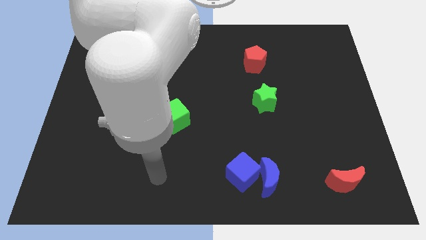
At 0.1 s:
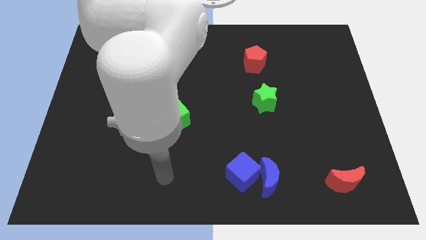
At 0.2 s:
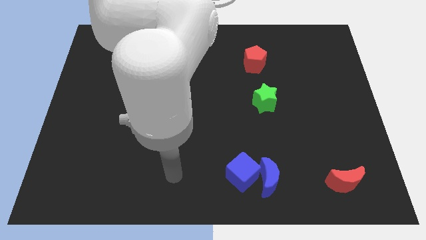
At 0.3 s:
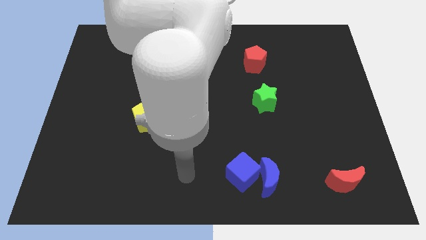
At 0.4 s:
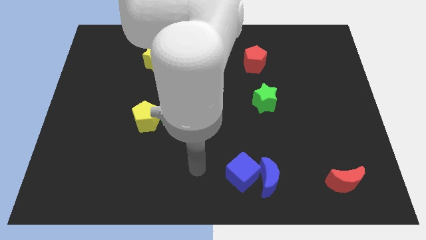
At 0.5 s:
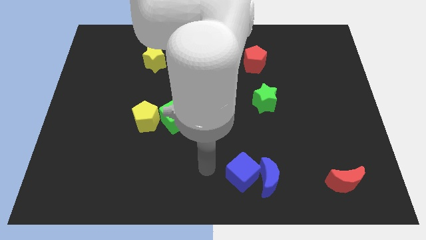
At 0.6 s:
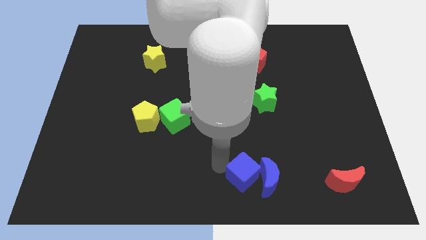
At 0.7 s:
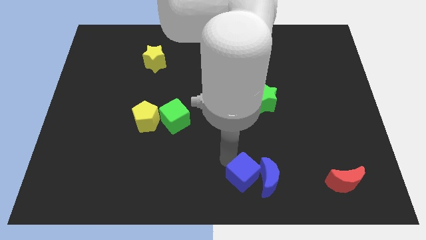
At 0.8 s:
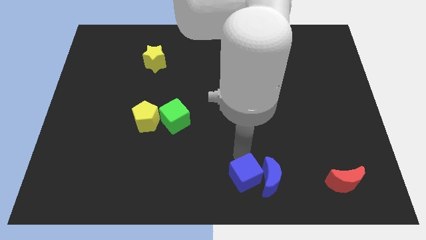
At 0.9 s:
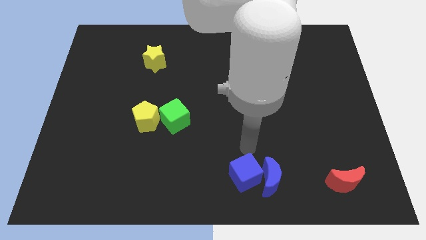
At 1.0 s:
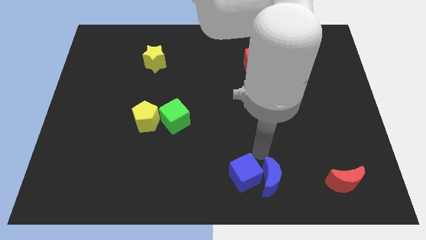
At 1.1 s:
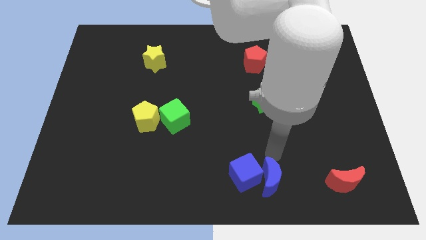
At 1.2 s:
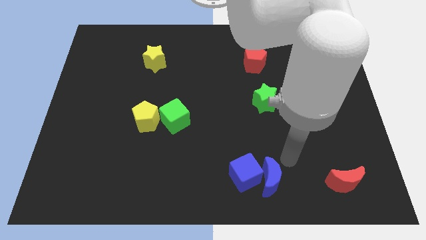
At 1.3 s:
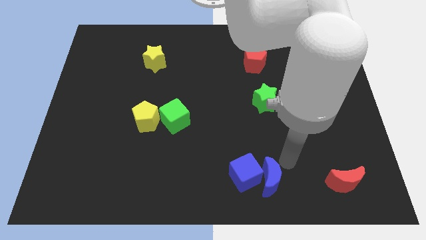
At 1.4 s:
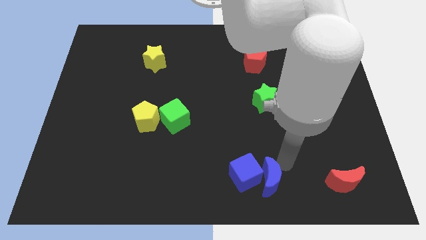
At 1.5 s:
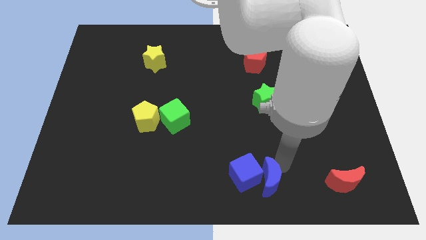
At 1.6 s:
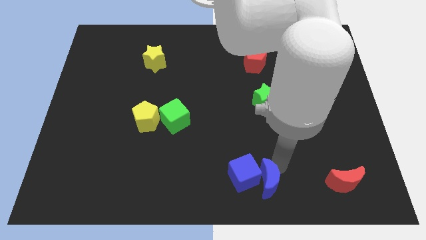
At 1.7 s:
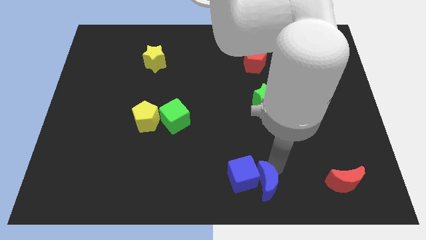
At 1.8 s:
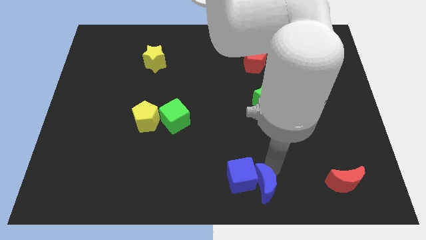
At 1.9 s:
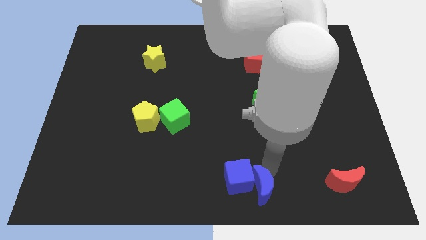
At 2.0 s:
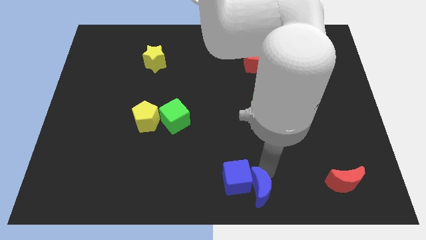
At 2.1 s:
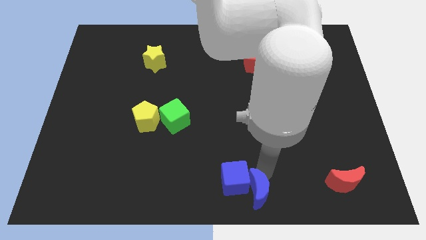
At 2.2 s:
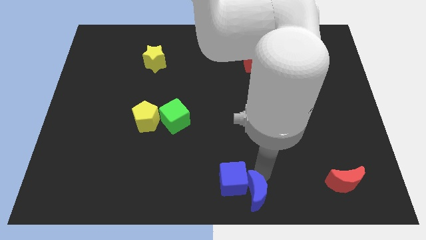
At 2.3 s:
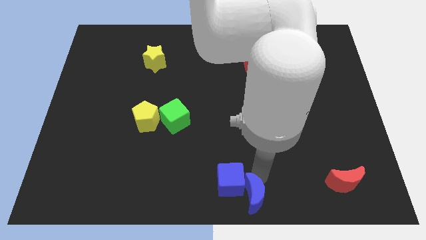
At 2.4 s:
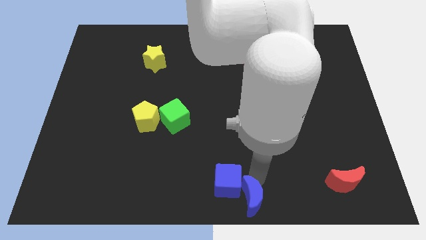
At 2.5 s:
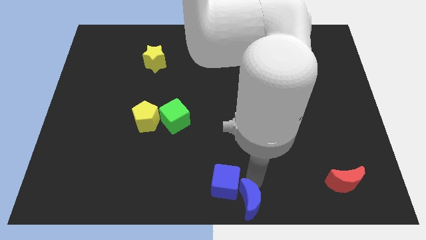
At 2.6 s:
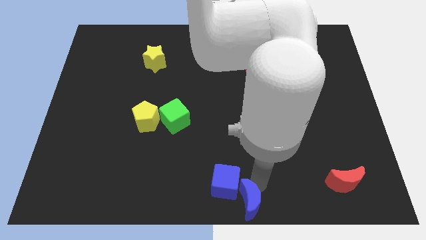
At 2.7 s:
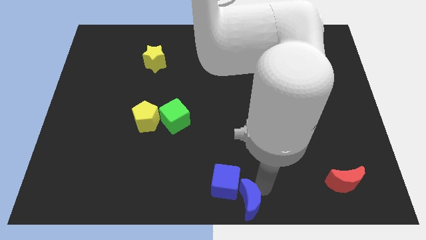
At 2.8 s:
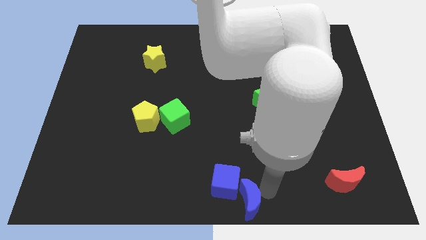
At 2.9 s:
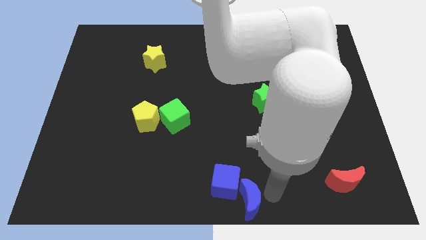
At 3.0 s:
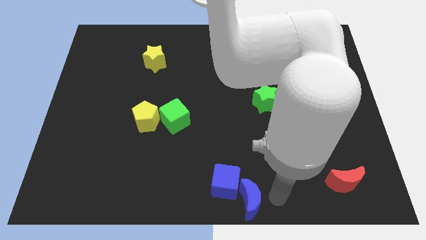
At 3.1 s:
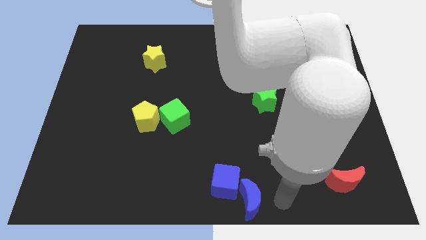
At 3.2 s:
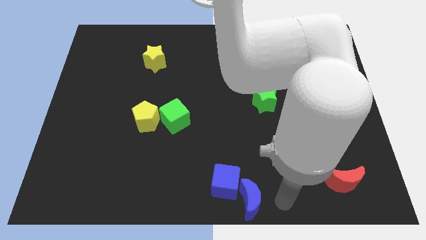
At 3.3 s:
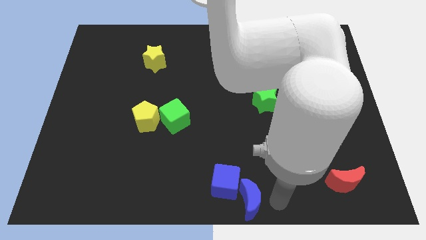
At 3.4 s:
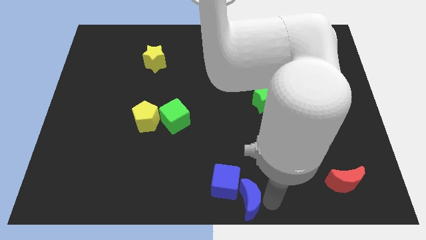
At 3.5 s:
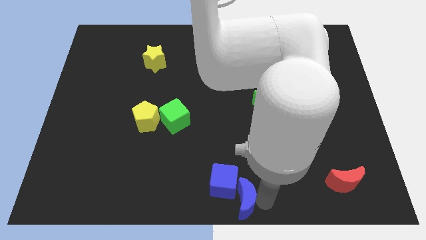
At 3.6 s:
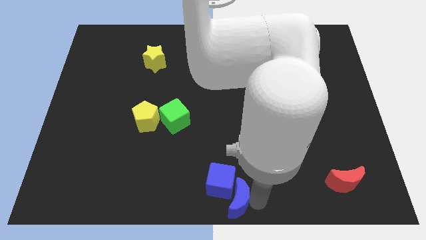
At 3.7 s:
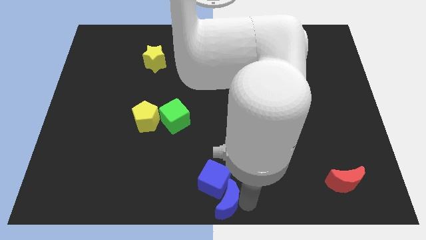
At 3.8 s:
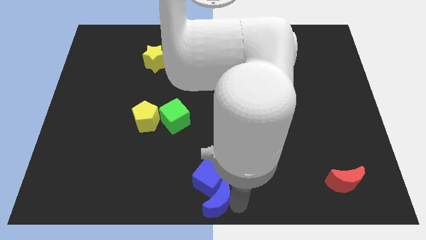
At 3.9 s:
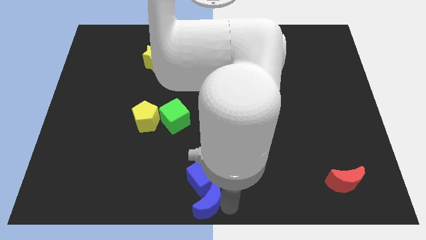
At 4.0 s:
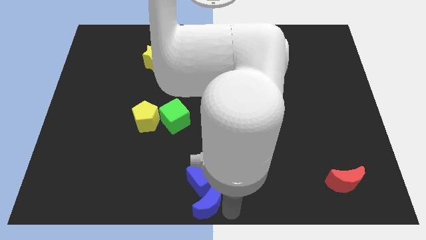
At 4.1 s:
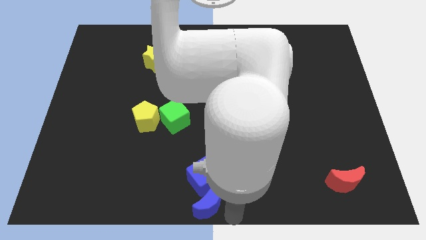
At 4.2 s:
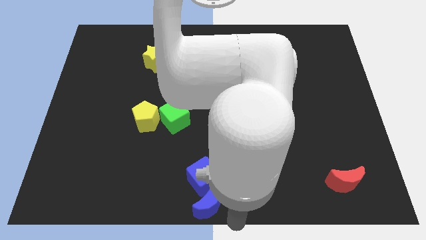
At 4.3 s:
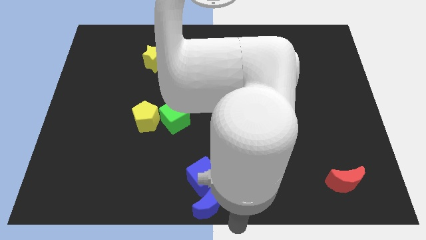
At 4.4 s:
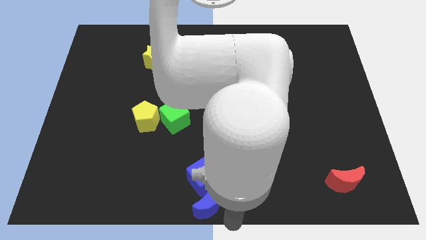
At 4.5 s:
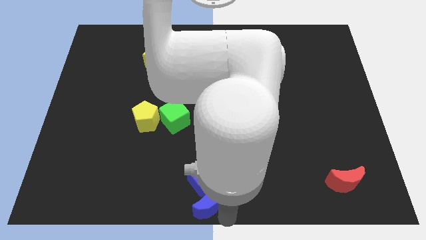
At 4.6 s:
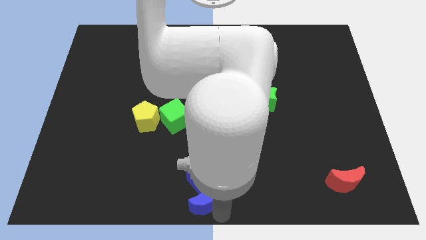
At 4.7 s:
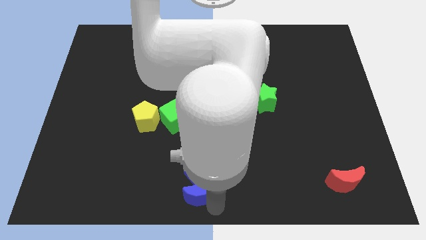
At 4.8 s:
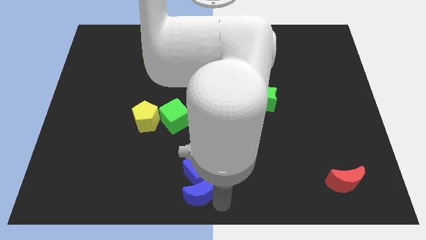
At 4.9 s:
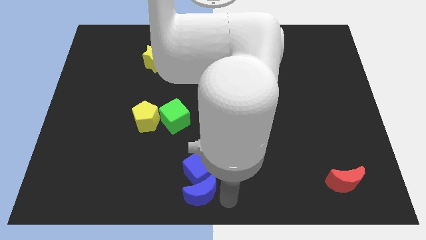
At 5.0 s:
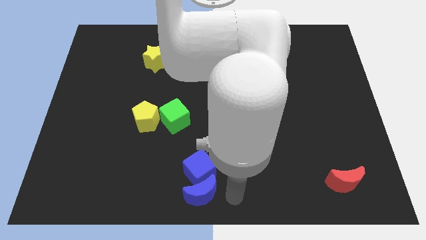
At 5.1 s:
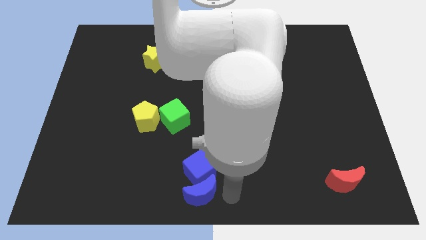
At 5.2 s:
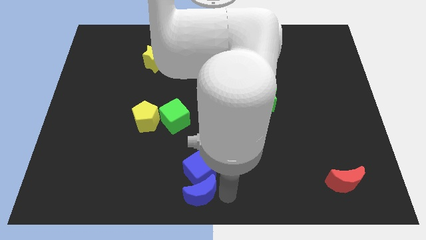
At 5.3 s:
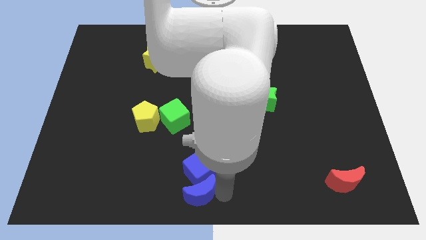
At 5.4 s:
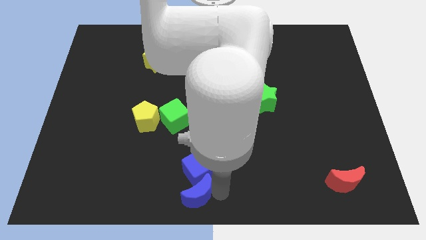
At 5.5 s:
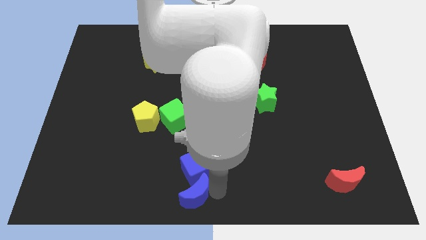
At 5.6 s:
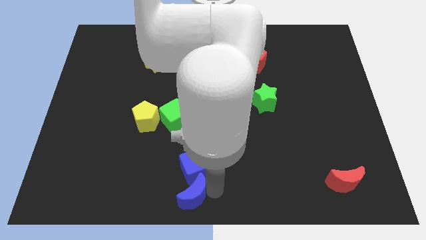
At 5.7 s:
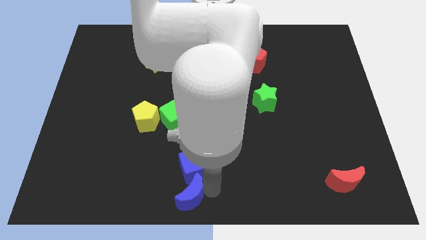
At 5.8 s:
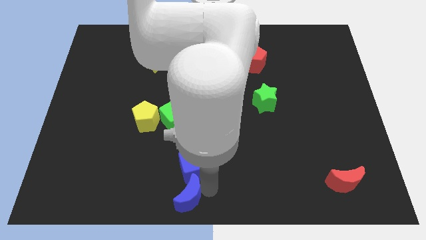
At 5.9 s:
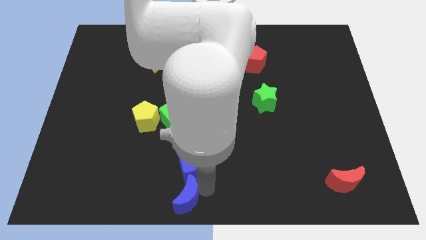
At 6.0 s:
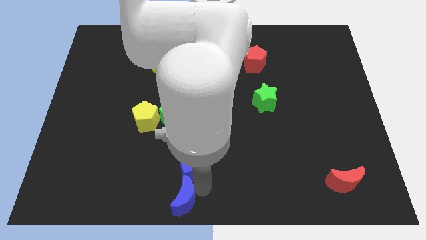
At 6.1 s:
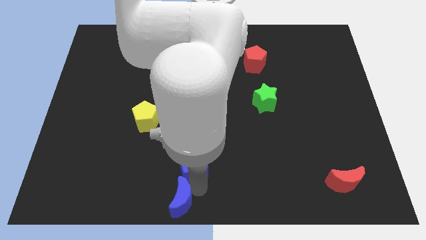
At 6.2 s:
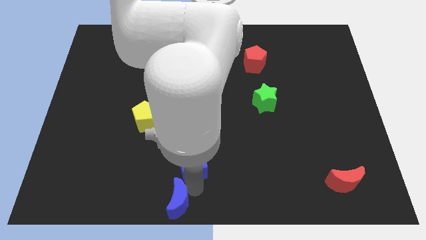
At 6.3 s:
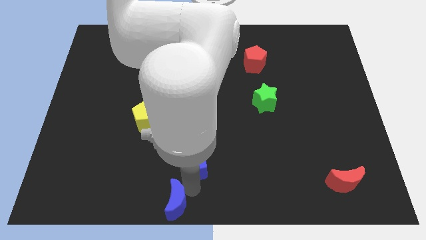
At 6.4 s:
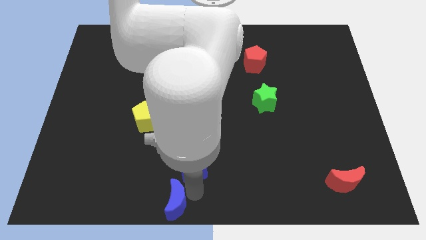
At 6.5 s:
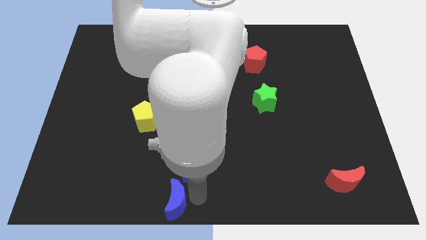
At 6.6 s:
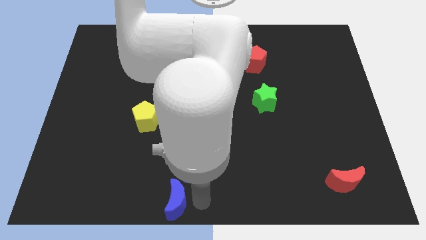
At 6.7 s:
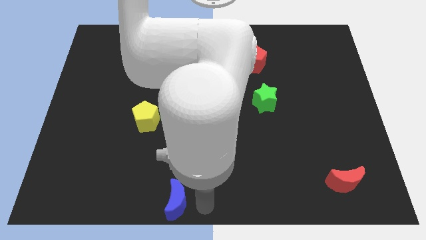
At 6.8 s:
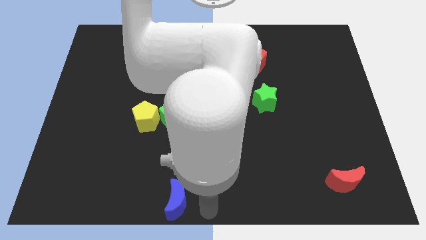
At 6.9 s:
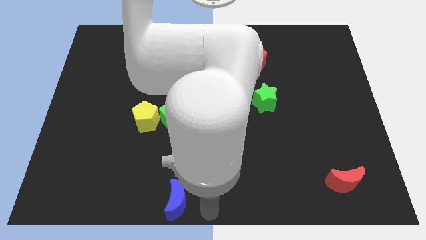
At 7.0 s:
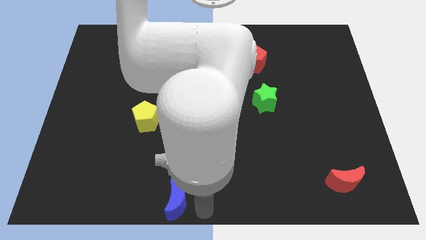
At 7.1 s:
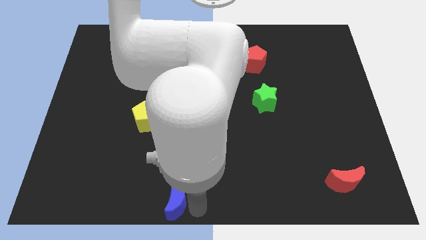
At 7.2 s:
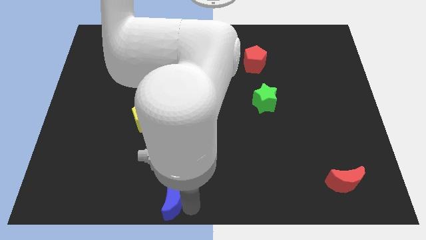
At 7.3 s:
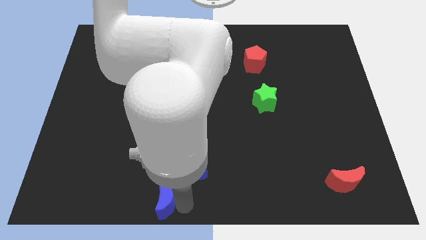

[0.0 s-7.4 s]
push the blue moon to the left

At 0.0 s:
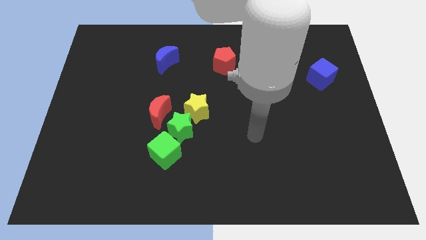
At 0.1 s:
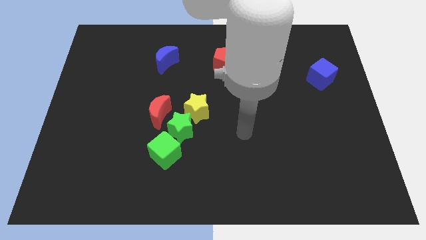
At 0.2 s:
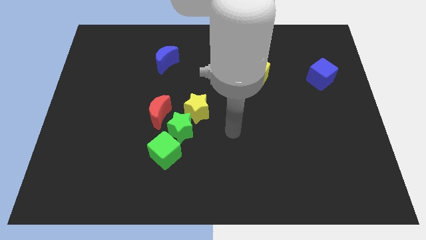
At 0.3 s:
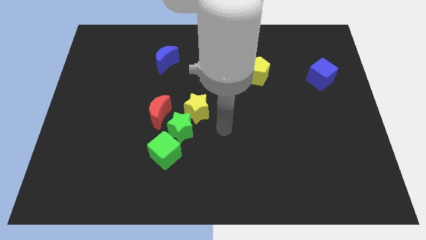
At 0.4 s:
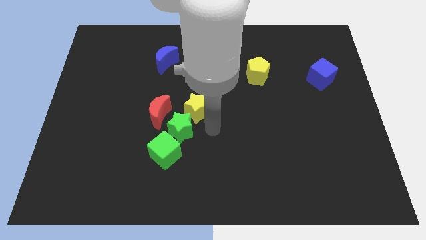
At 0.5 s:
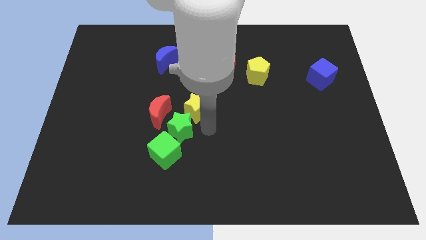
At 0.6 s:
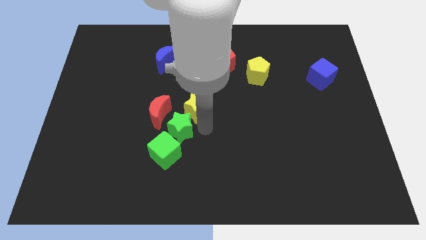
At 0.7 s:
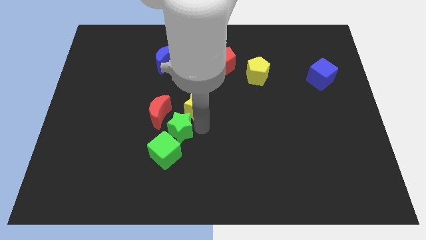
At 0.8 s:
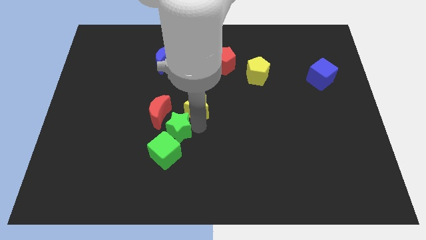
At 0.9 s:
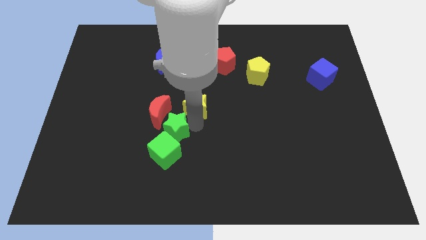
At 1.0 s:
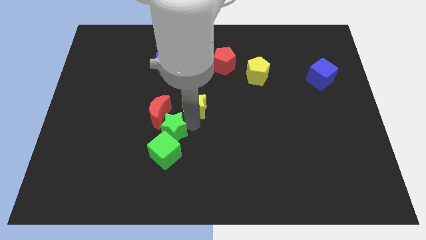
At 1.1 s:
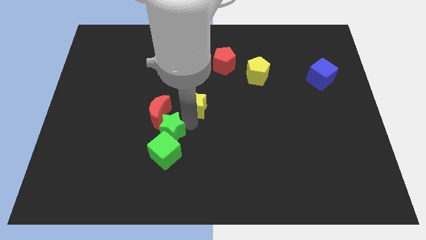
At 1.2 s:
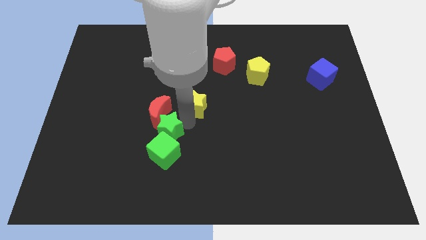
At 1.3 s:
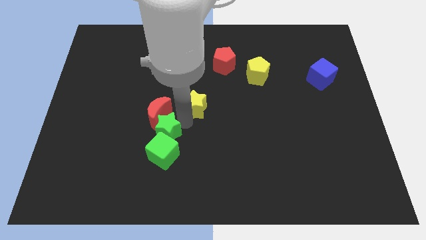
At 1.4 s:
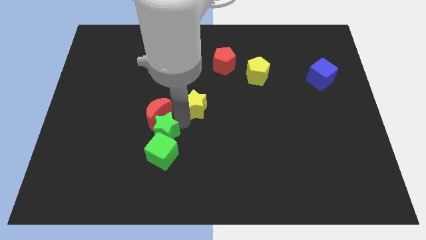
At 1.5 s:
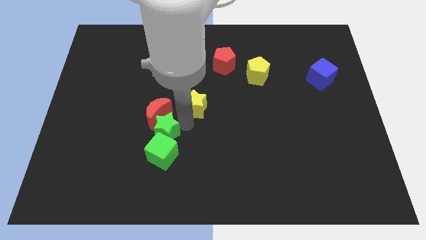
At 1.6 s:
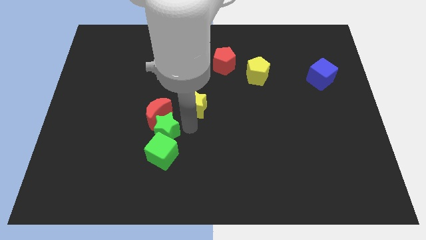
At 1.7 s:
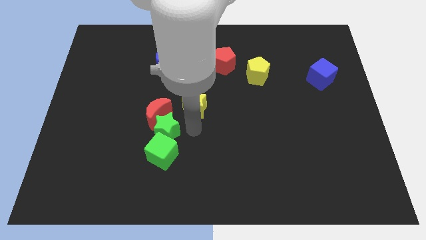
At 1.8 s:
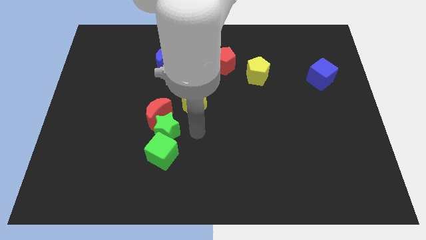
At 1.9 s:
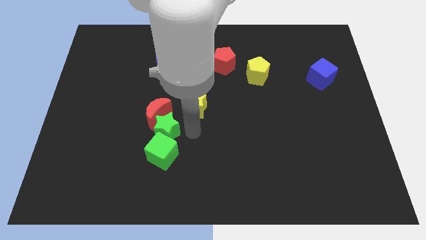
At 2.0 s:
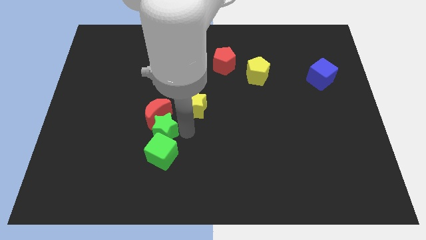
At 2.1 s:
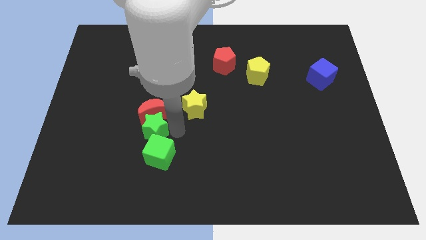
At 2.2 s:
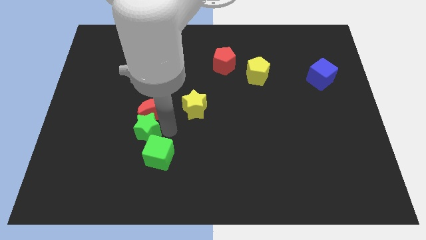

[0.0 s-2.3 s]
move the green star a bit to the left
